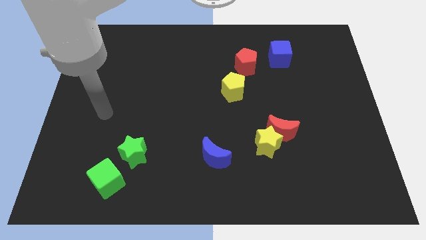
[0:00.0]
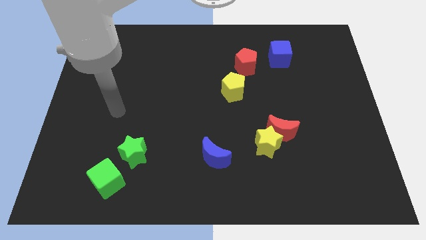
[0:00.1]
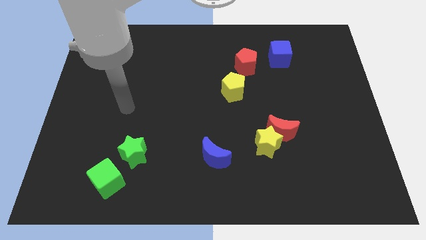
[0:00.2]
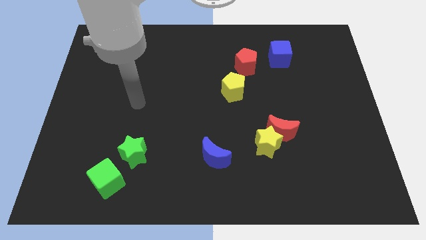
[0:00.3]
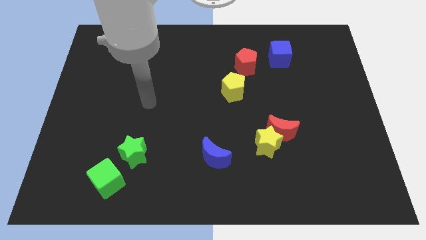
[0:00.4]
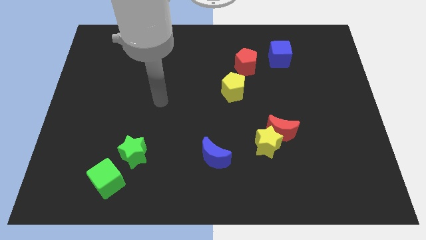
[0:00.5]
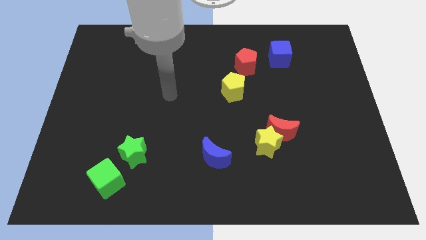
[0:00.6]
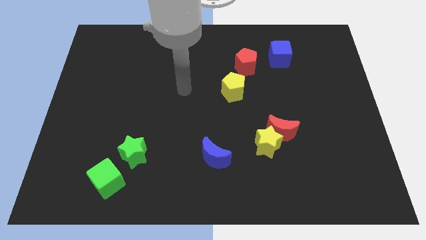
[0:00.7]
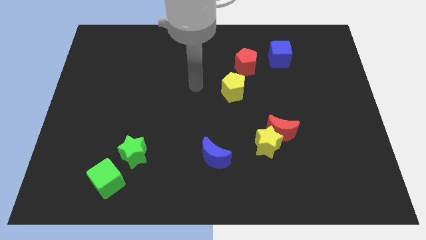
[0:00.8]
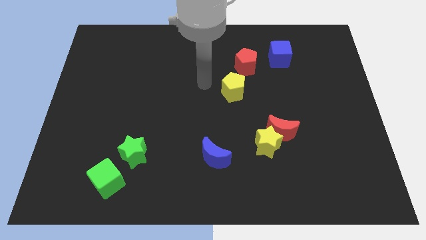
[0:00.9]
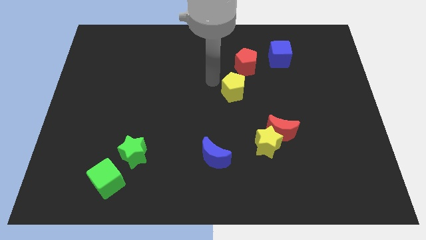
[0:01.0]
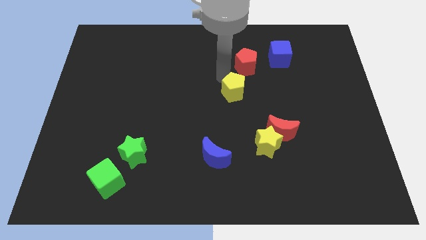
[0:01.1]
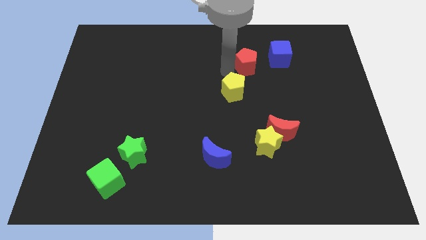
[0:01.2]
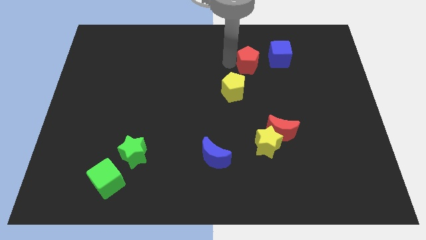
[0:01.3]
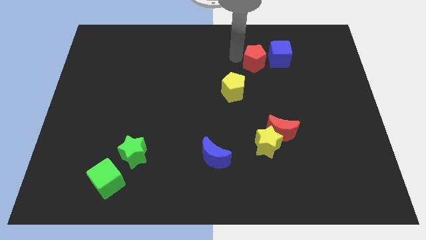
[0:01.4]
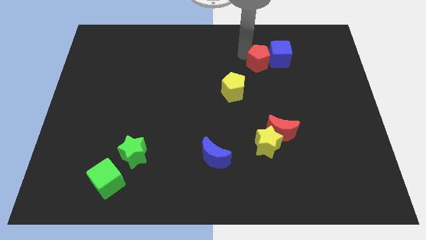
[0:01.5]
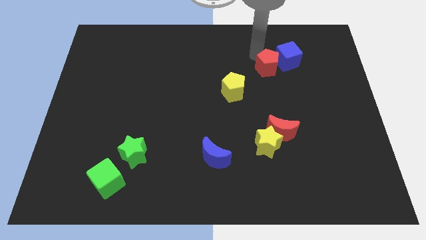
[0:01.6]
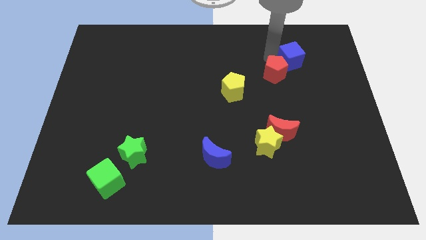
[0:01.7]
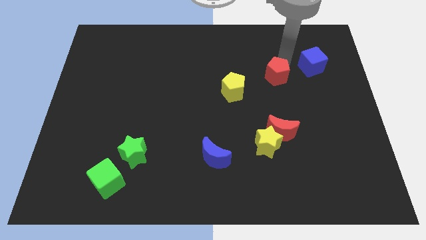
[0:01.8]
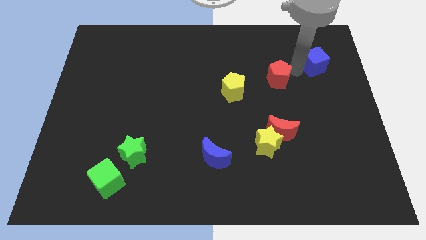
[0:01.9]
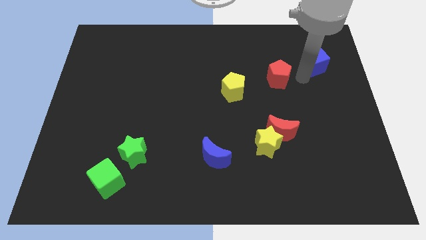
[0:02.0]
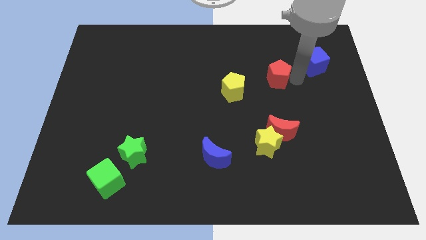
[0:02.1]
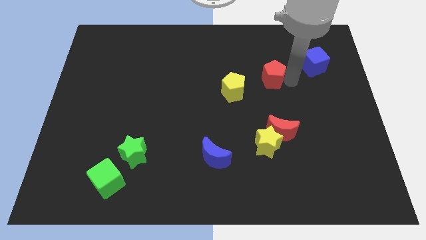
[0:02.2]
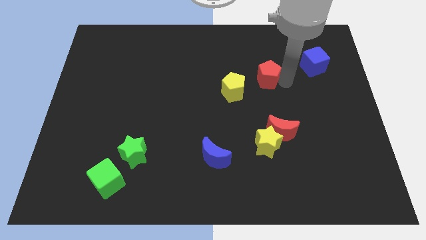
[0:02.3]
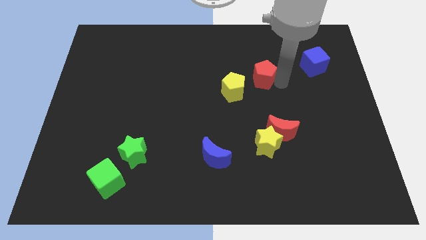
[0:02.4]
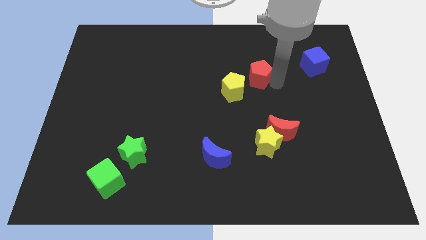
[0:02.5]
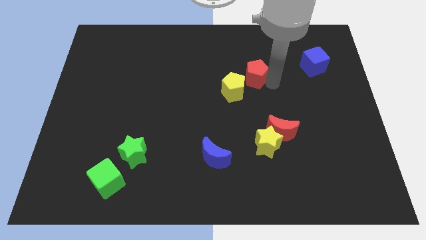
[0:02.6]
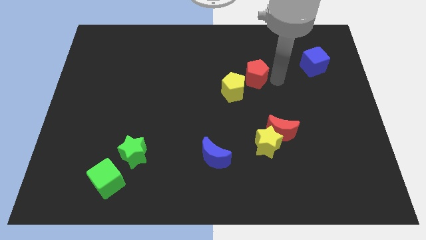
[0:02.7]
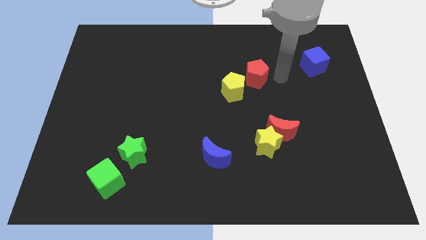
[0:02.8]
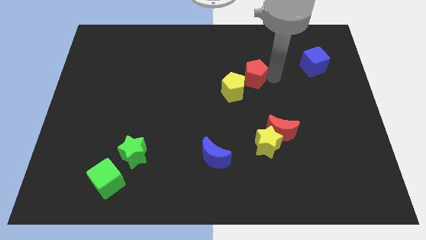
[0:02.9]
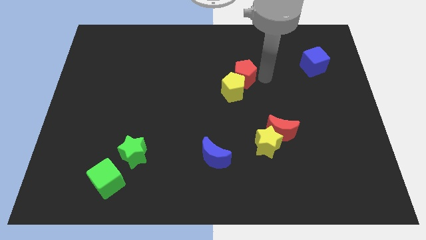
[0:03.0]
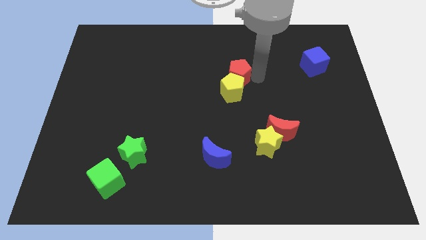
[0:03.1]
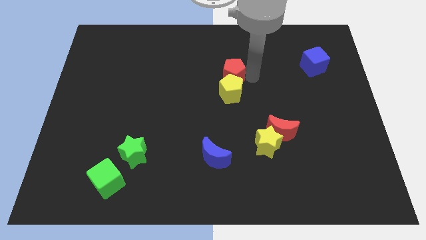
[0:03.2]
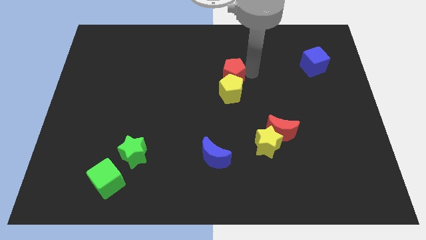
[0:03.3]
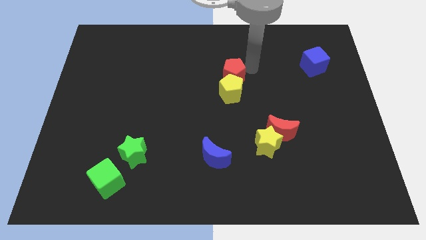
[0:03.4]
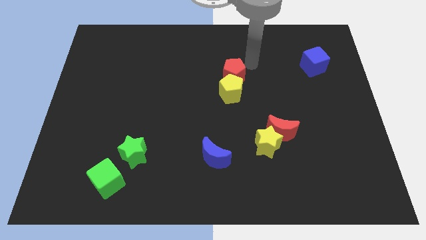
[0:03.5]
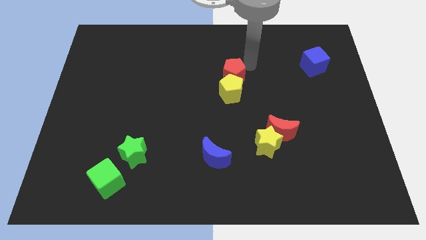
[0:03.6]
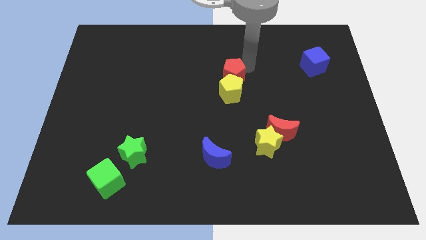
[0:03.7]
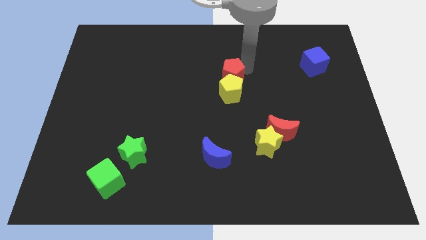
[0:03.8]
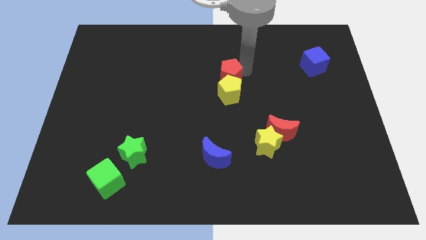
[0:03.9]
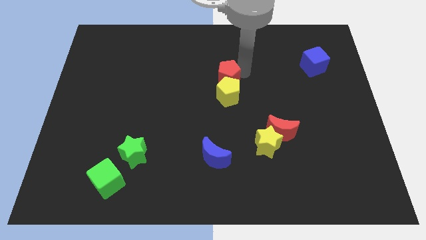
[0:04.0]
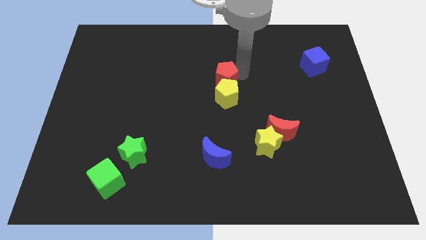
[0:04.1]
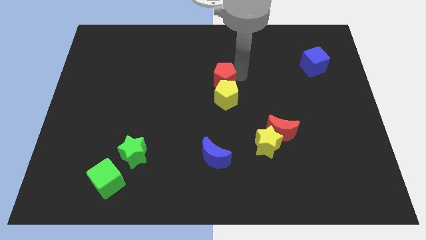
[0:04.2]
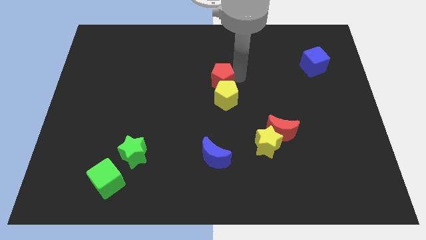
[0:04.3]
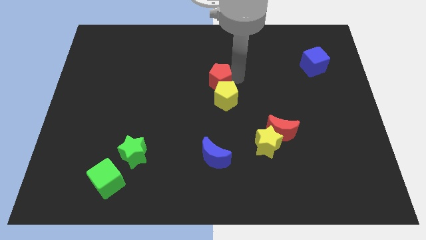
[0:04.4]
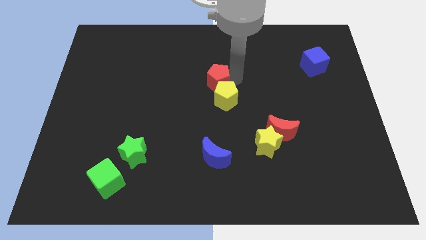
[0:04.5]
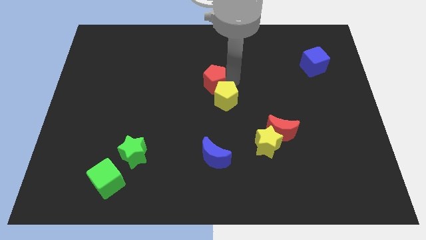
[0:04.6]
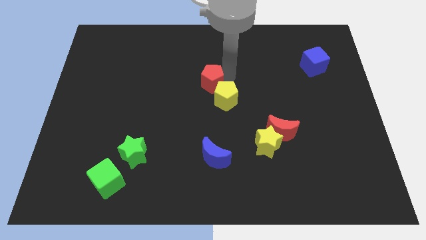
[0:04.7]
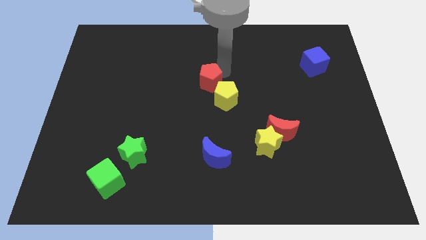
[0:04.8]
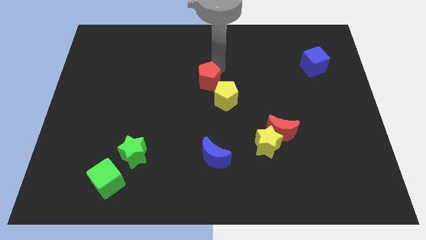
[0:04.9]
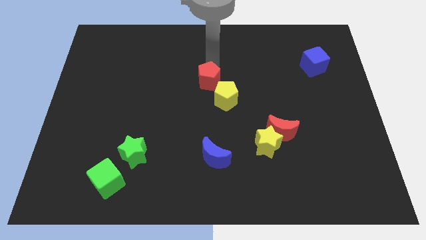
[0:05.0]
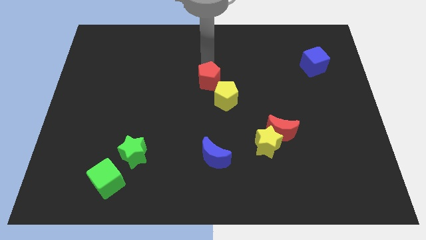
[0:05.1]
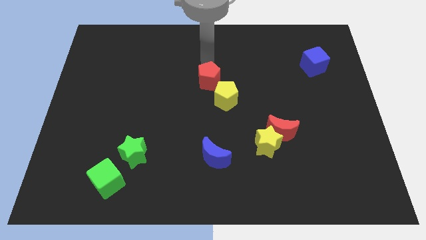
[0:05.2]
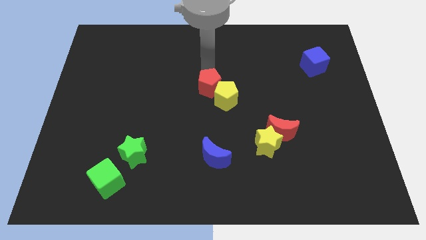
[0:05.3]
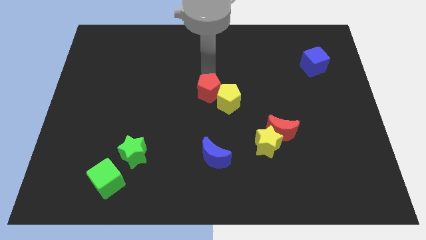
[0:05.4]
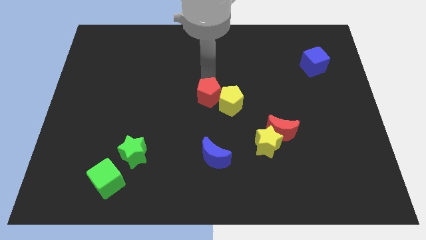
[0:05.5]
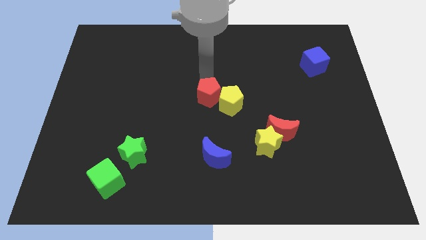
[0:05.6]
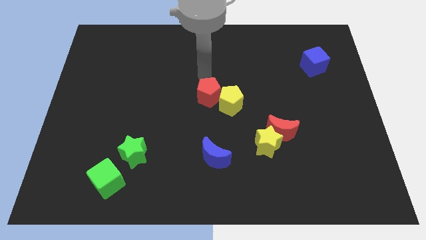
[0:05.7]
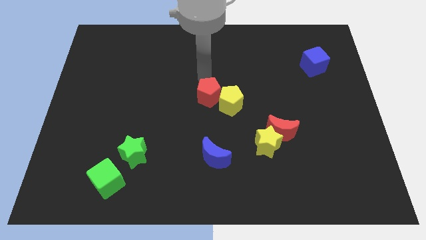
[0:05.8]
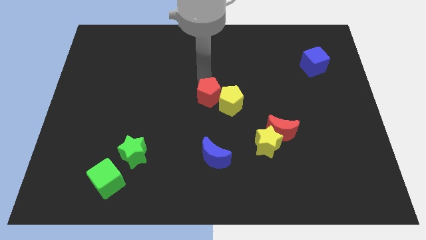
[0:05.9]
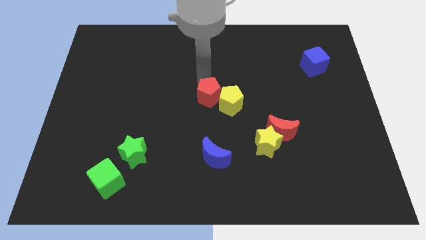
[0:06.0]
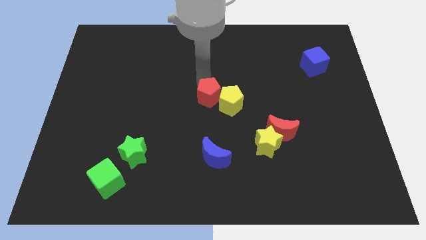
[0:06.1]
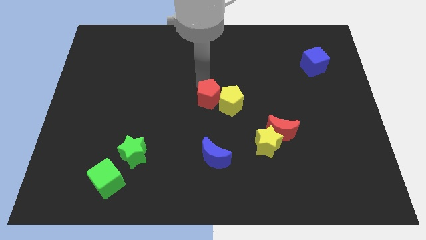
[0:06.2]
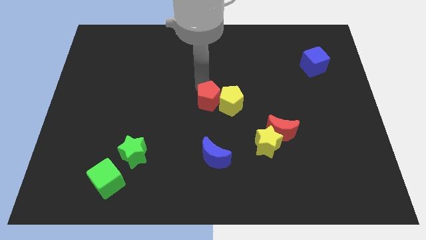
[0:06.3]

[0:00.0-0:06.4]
put the red pentagon to the top side of the blue moon

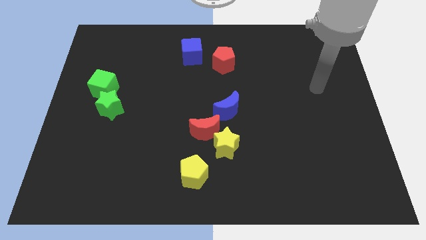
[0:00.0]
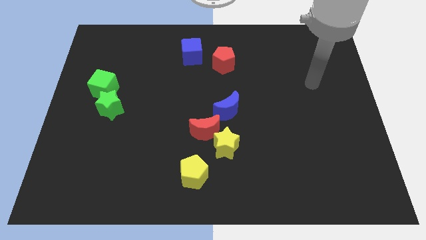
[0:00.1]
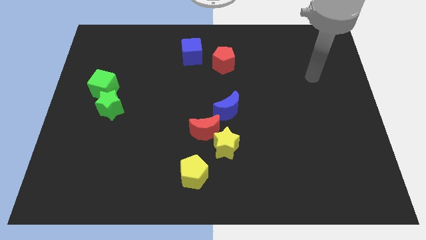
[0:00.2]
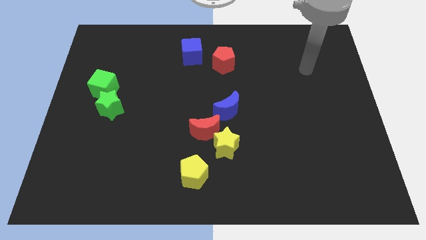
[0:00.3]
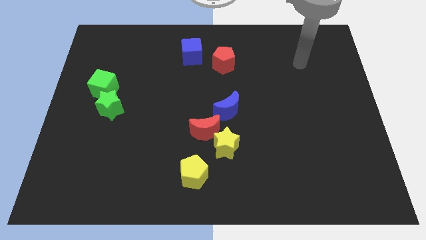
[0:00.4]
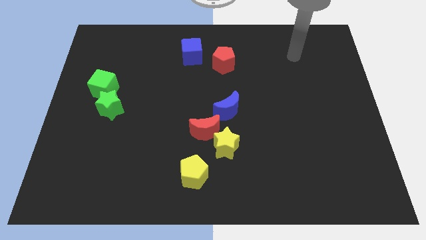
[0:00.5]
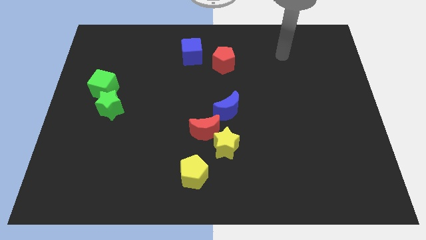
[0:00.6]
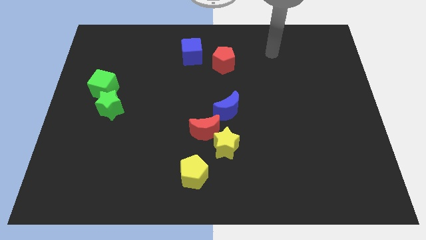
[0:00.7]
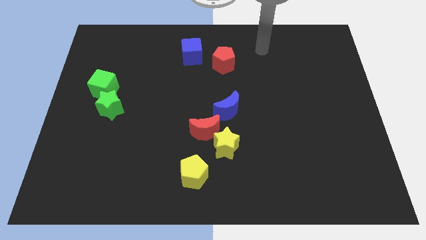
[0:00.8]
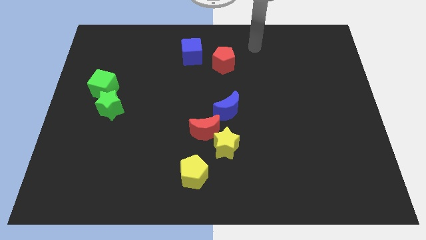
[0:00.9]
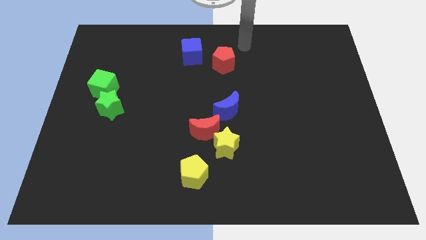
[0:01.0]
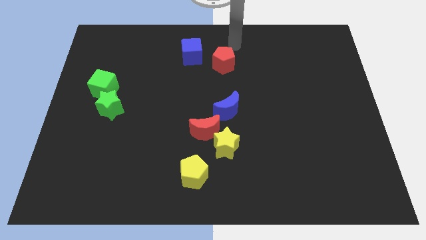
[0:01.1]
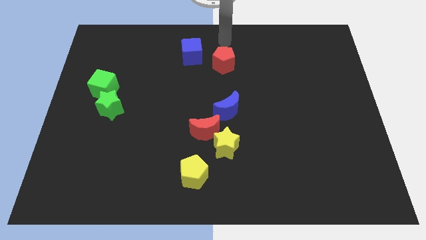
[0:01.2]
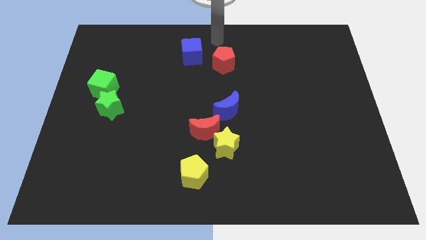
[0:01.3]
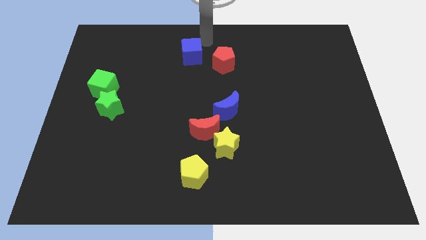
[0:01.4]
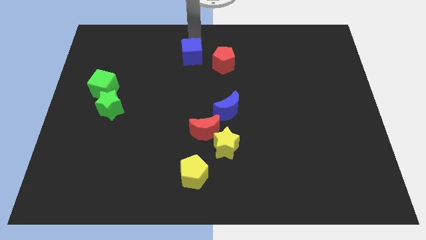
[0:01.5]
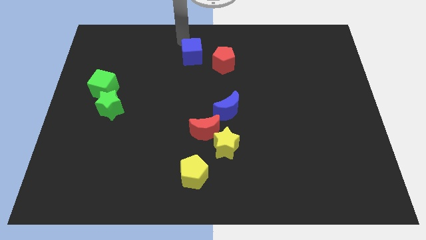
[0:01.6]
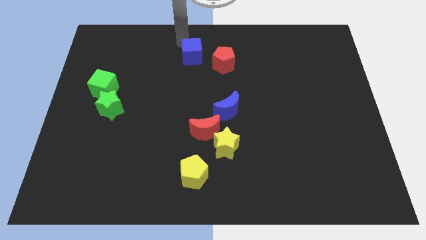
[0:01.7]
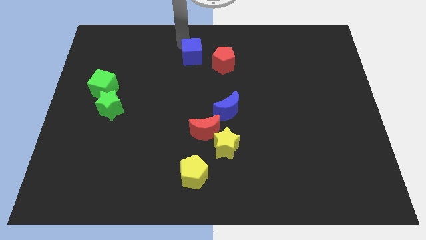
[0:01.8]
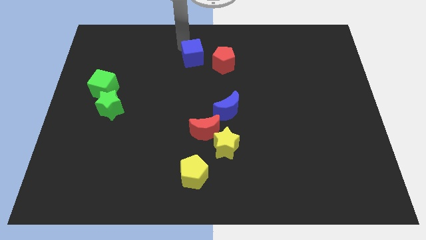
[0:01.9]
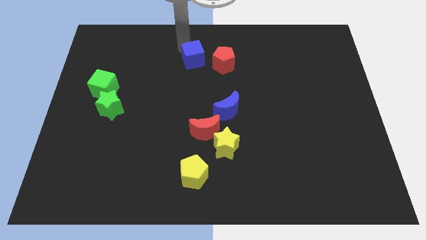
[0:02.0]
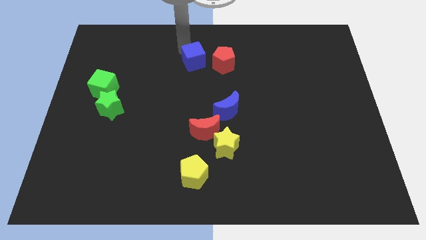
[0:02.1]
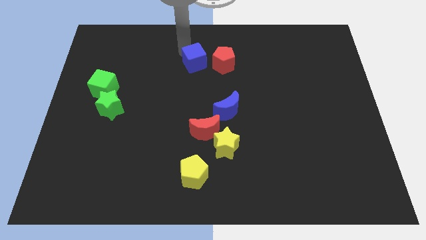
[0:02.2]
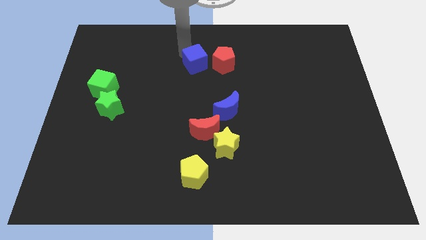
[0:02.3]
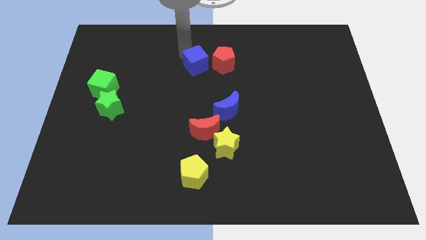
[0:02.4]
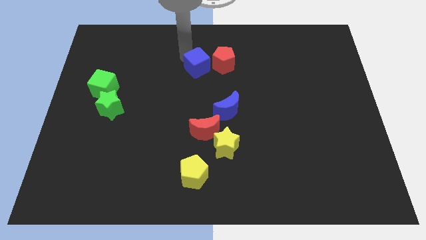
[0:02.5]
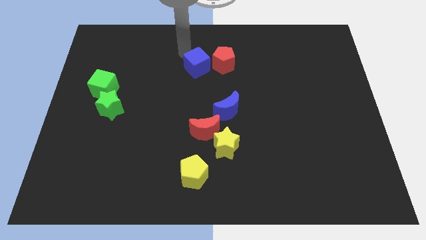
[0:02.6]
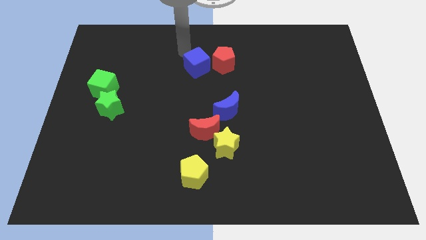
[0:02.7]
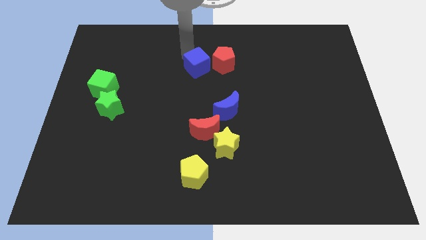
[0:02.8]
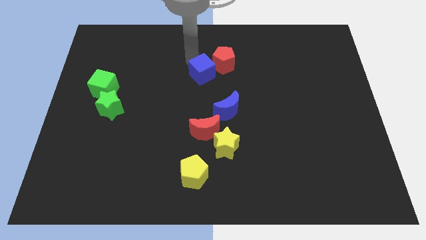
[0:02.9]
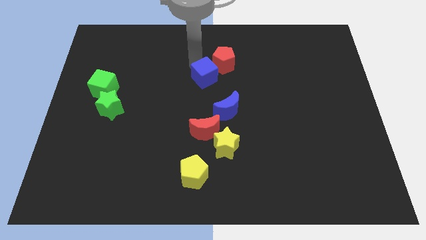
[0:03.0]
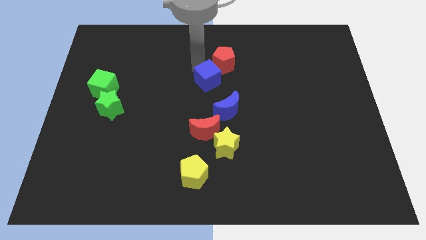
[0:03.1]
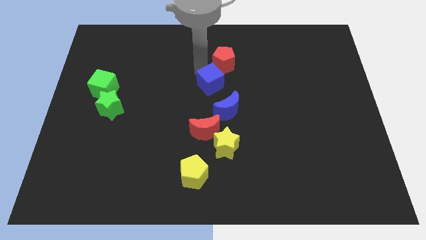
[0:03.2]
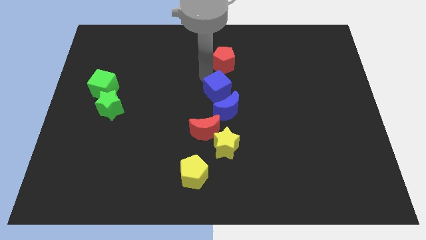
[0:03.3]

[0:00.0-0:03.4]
push the blue cube to the top of the yellow star
